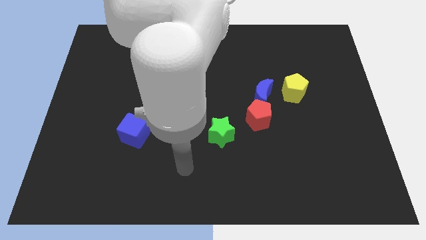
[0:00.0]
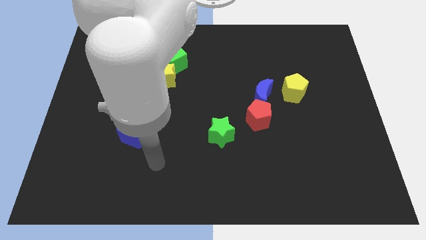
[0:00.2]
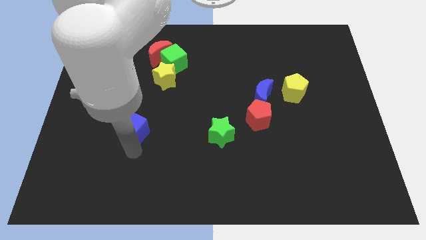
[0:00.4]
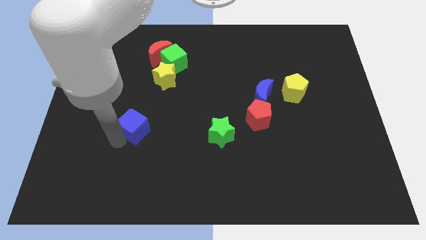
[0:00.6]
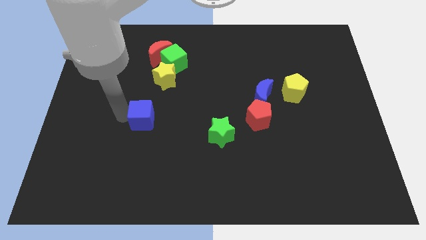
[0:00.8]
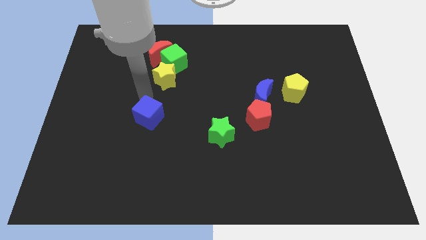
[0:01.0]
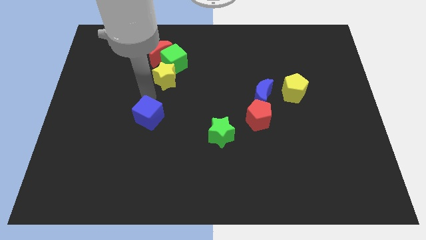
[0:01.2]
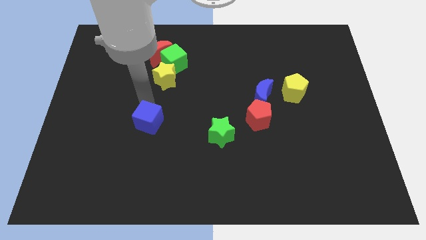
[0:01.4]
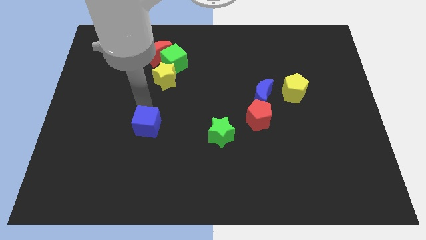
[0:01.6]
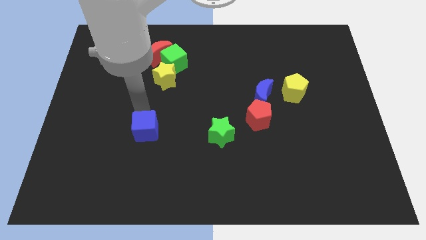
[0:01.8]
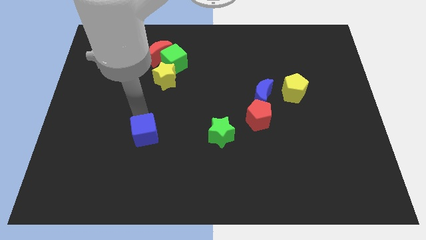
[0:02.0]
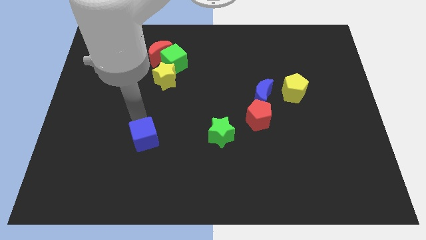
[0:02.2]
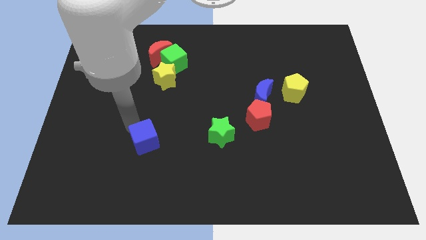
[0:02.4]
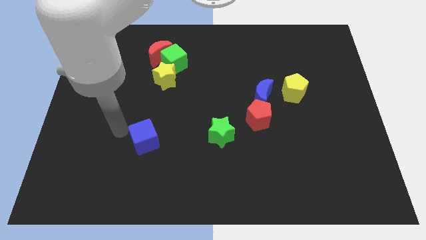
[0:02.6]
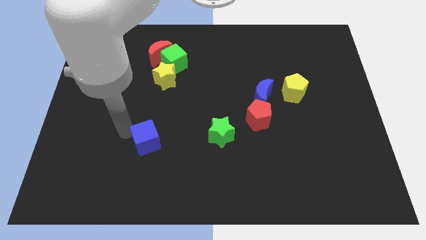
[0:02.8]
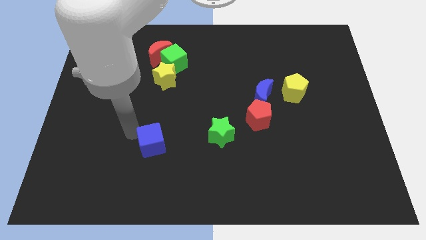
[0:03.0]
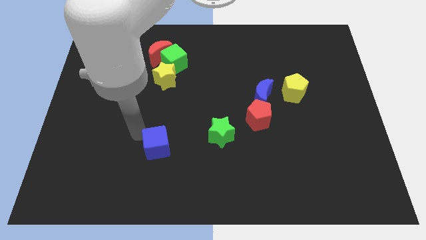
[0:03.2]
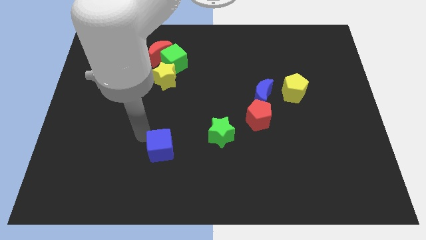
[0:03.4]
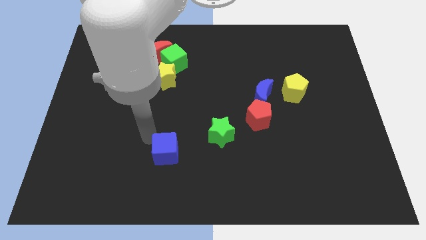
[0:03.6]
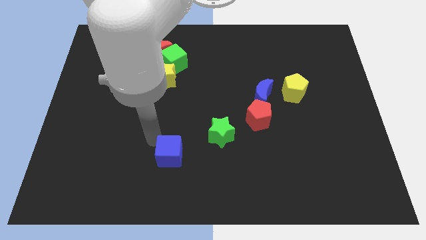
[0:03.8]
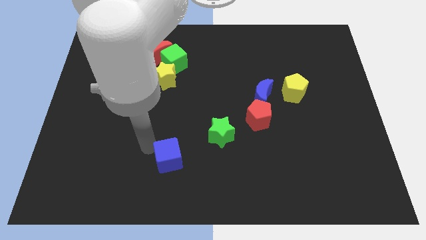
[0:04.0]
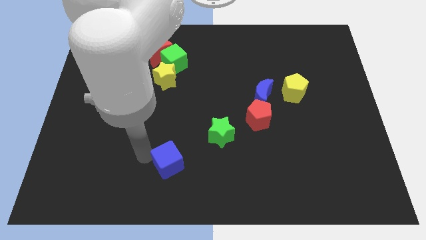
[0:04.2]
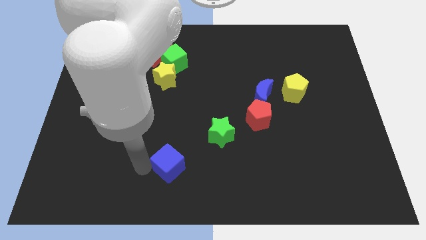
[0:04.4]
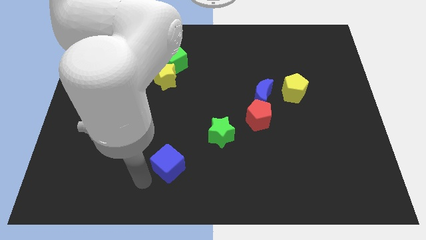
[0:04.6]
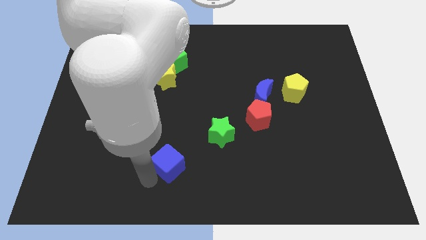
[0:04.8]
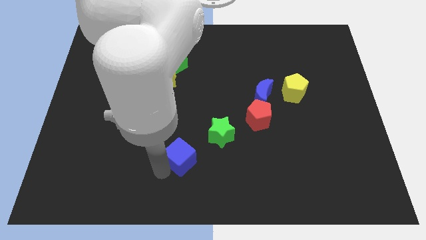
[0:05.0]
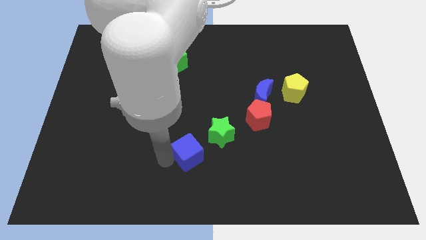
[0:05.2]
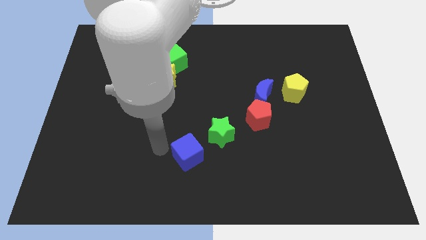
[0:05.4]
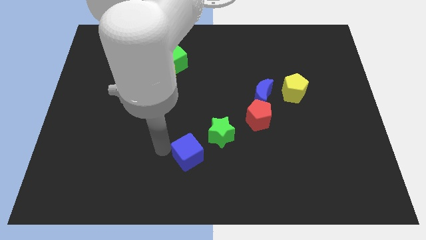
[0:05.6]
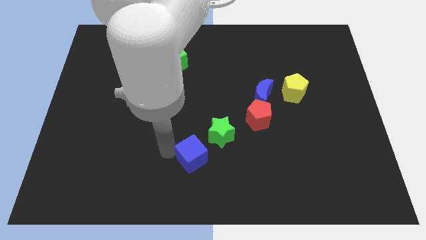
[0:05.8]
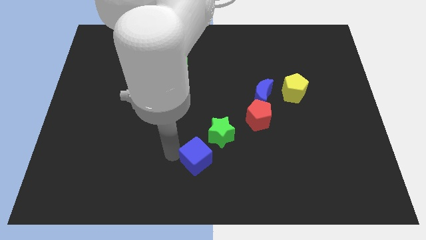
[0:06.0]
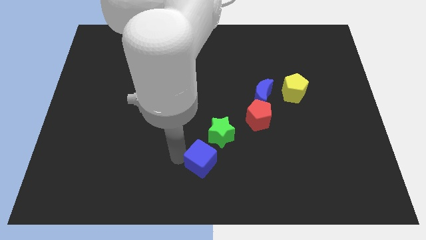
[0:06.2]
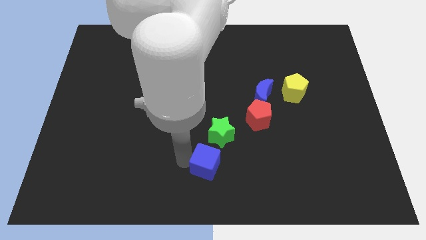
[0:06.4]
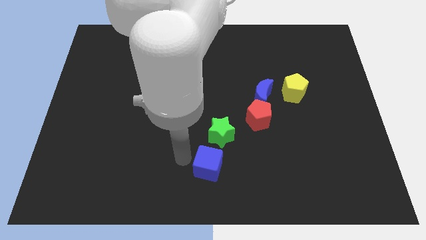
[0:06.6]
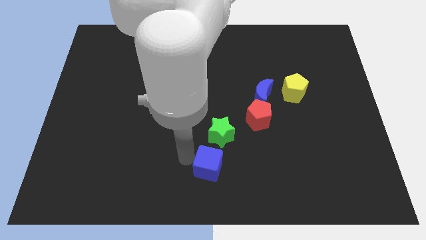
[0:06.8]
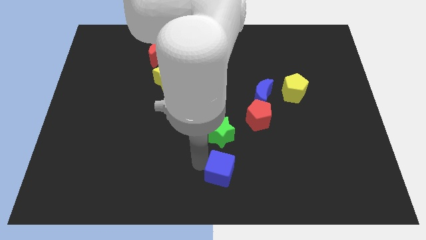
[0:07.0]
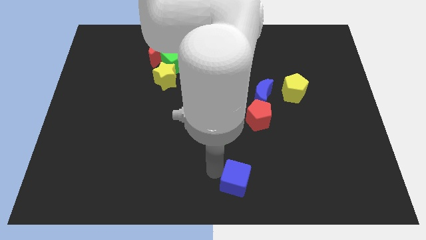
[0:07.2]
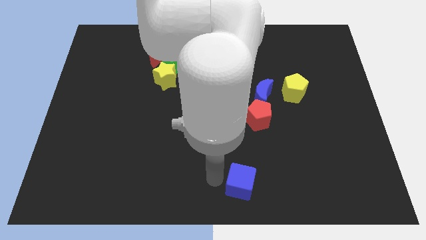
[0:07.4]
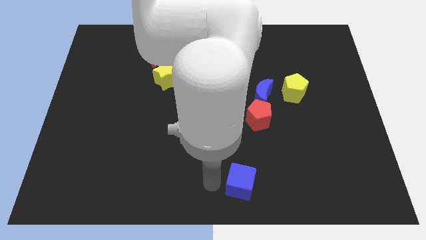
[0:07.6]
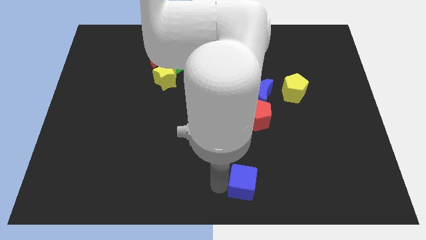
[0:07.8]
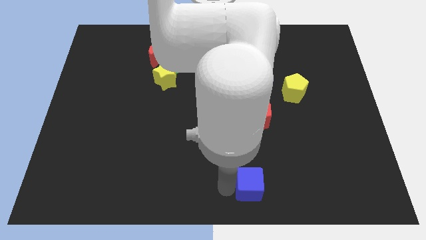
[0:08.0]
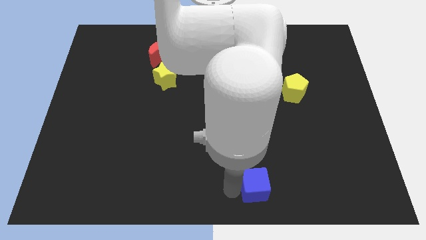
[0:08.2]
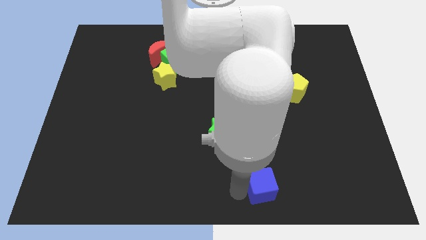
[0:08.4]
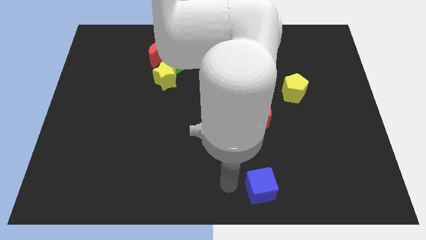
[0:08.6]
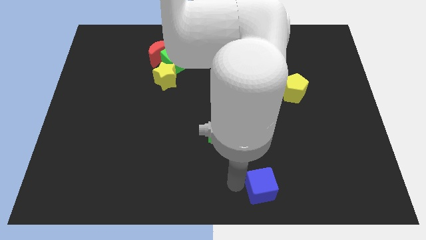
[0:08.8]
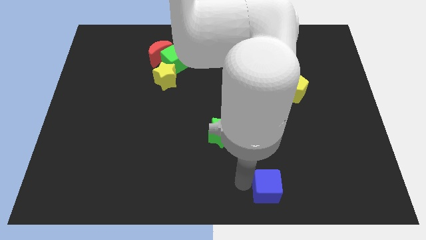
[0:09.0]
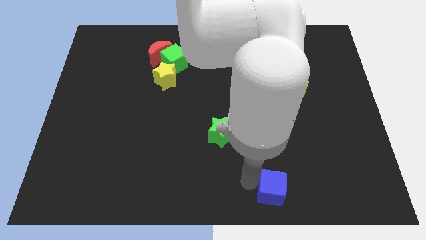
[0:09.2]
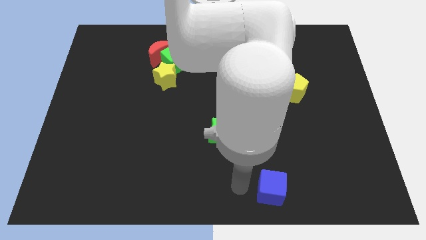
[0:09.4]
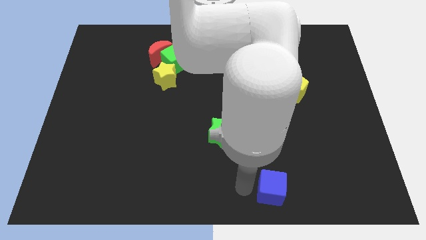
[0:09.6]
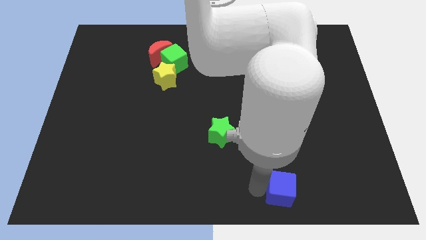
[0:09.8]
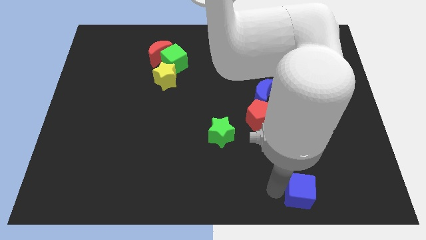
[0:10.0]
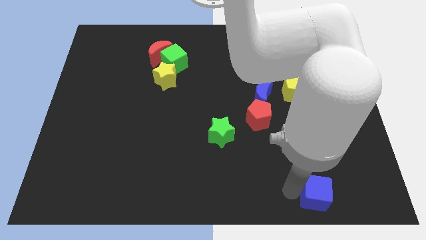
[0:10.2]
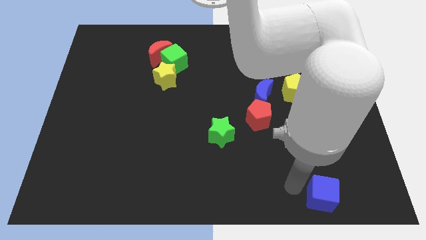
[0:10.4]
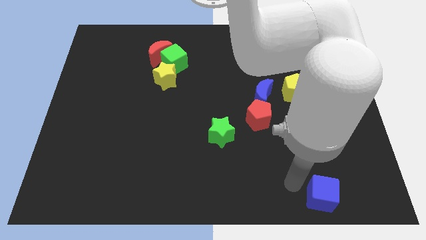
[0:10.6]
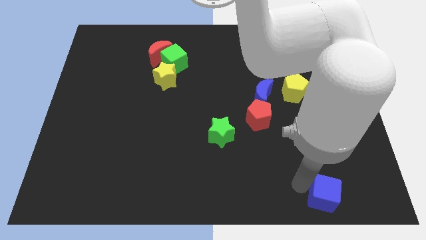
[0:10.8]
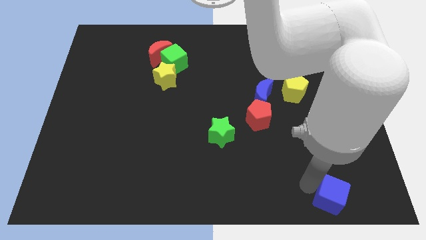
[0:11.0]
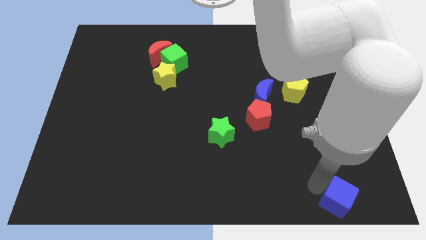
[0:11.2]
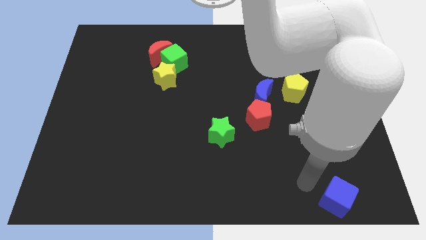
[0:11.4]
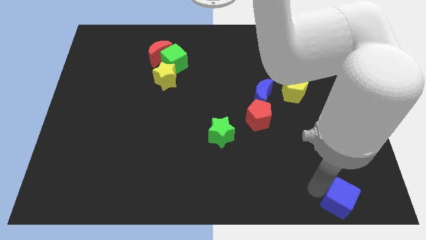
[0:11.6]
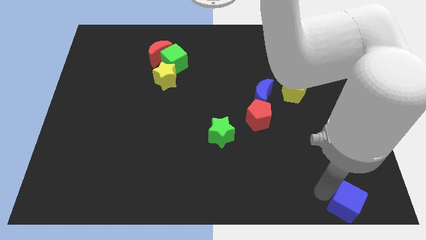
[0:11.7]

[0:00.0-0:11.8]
move the blue cube to the lower right corner

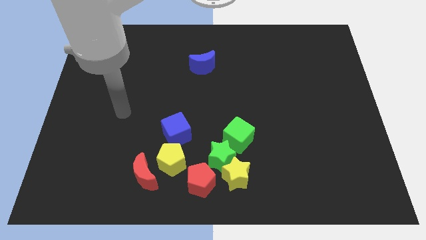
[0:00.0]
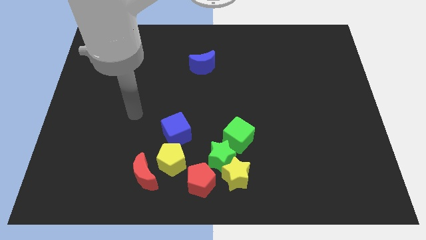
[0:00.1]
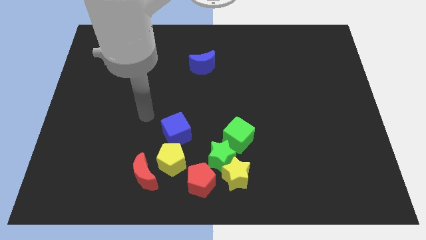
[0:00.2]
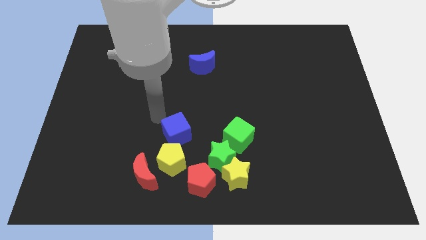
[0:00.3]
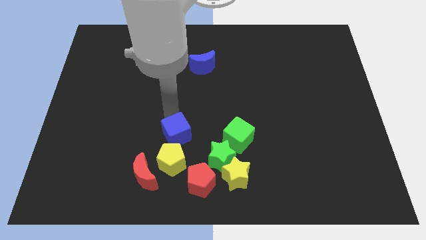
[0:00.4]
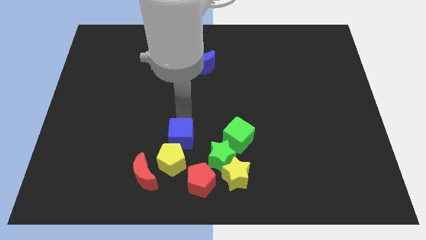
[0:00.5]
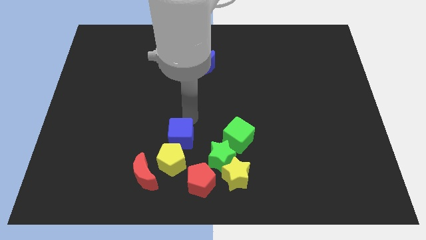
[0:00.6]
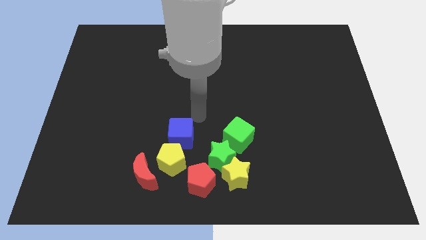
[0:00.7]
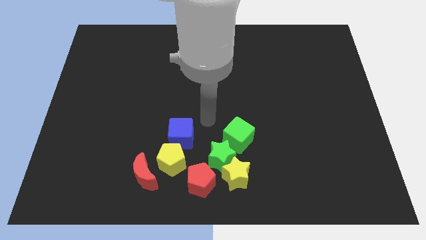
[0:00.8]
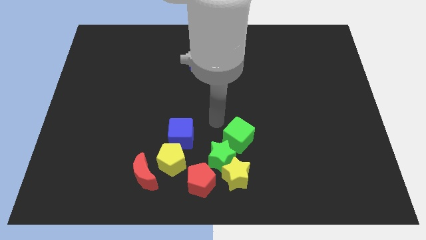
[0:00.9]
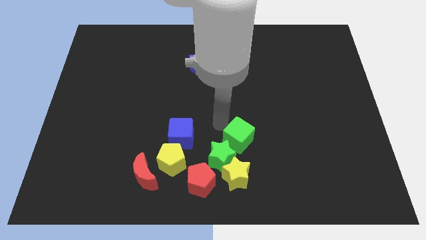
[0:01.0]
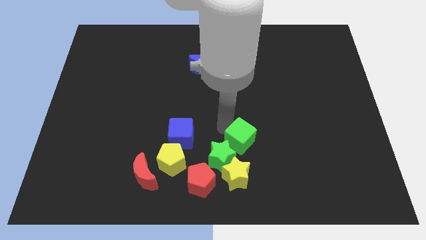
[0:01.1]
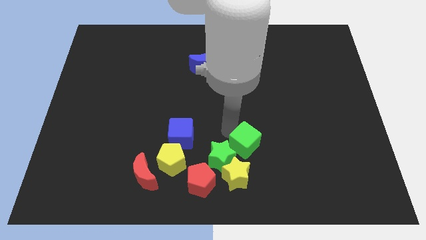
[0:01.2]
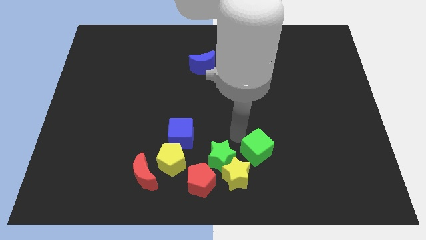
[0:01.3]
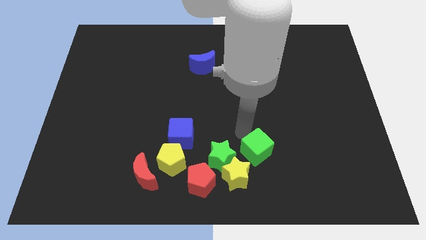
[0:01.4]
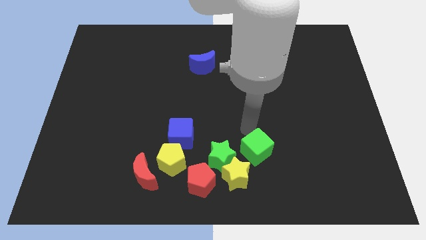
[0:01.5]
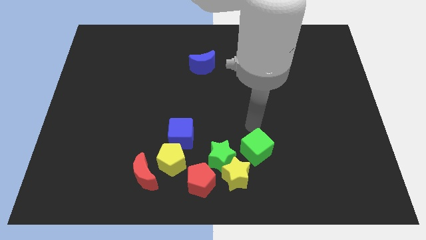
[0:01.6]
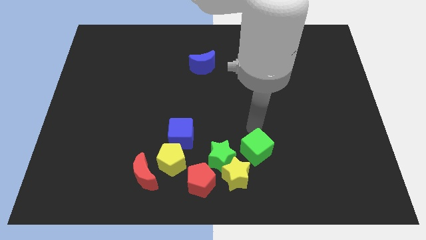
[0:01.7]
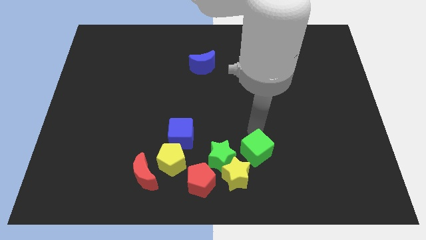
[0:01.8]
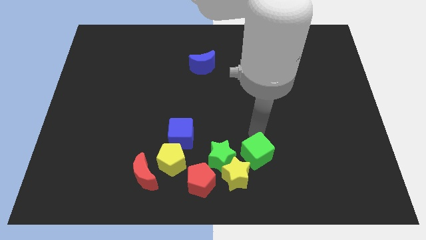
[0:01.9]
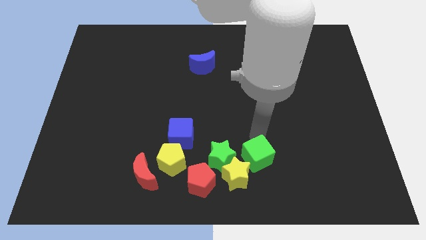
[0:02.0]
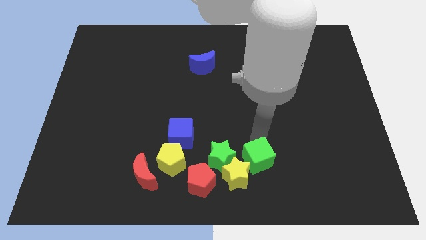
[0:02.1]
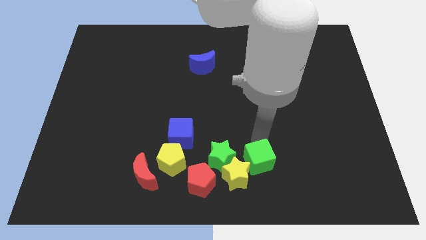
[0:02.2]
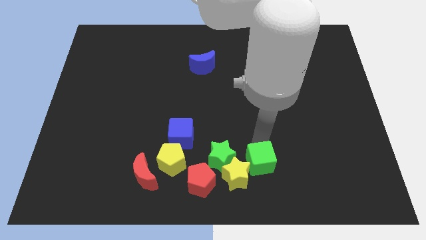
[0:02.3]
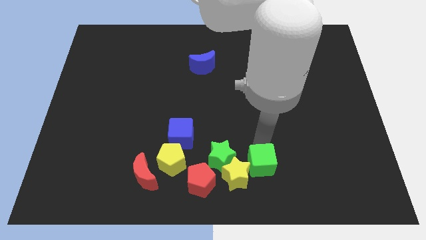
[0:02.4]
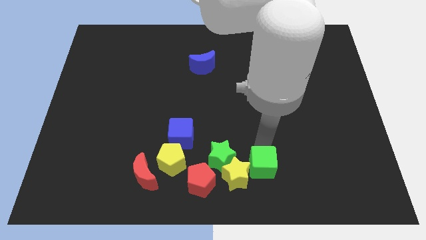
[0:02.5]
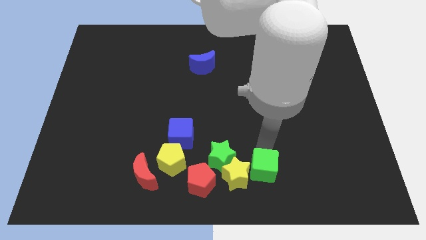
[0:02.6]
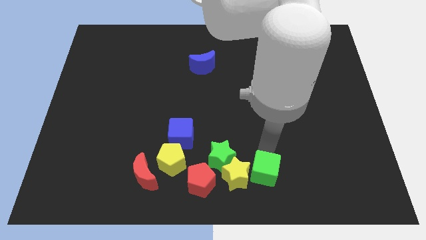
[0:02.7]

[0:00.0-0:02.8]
slide the green cube to the bottom
